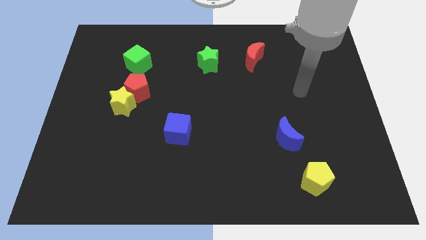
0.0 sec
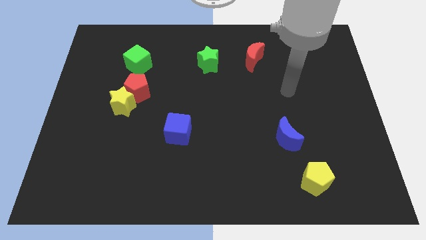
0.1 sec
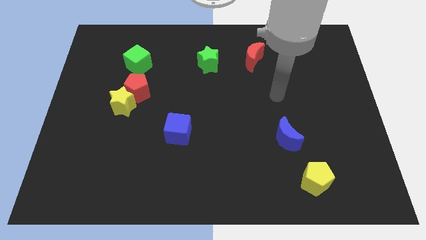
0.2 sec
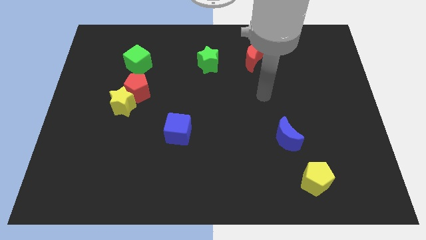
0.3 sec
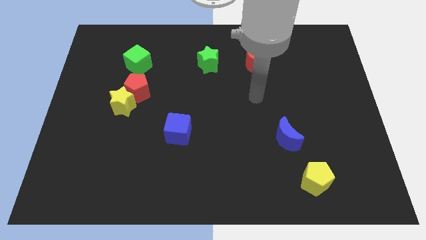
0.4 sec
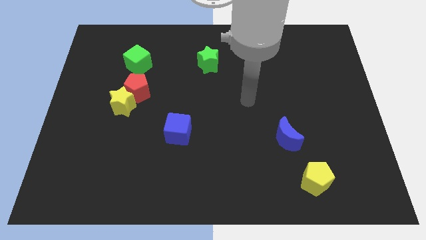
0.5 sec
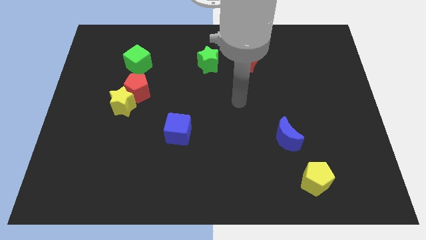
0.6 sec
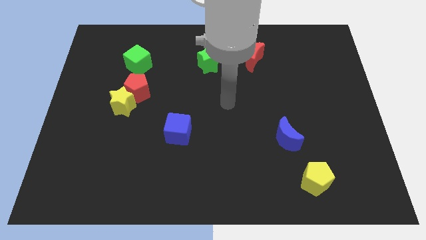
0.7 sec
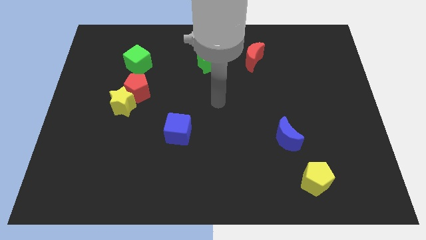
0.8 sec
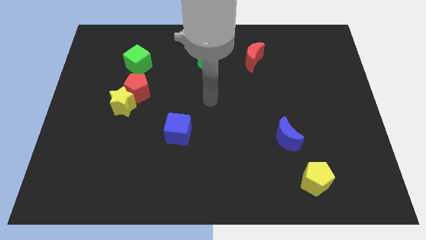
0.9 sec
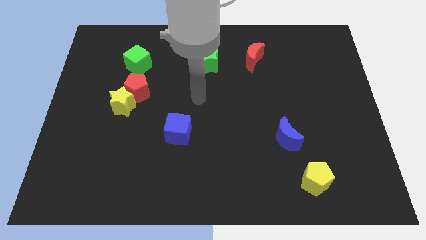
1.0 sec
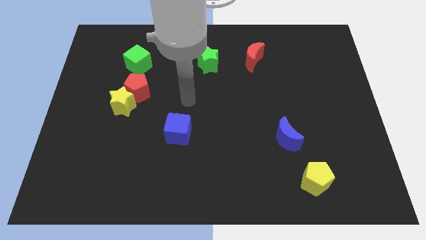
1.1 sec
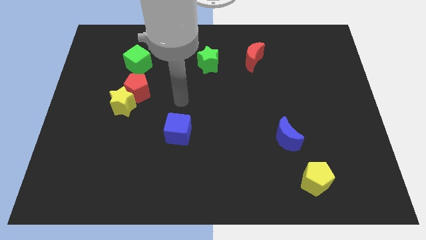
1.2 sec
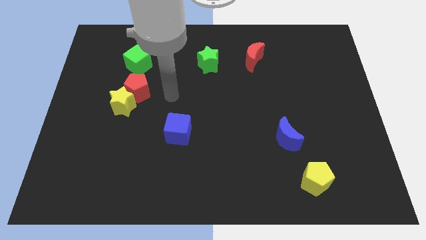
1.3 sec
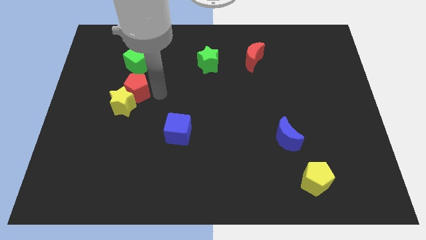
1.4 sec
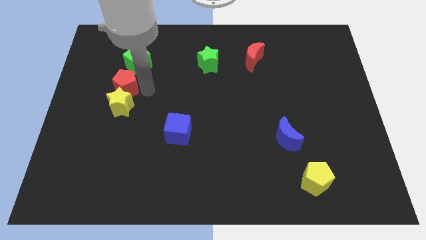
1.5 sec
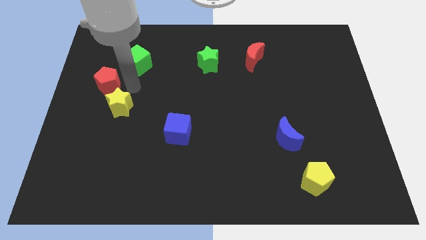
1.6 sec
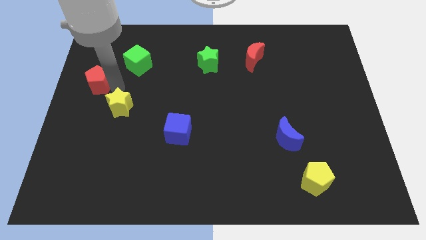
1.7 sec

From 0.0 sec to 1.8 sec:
pull the yellow star apart from the red pentagon

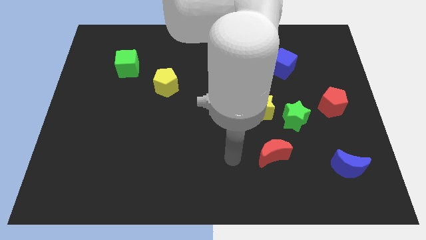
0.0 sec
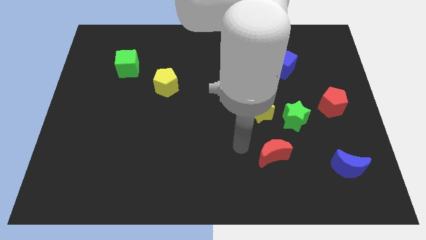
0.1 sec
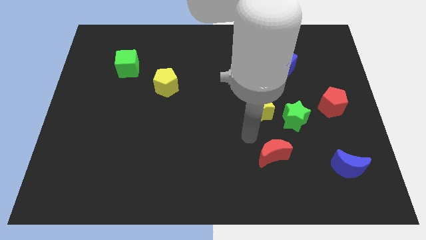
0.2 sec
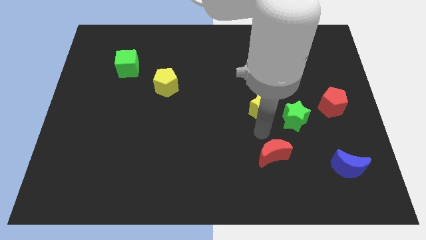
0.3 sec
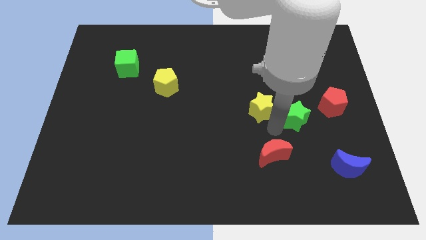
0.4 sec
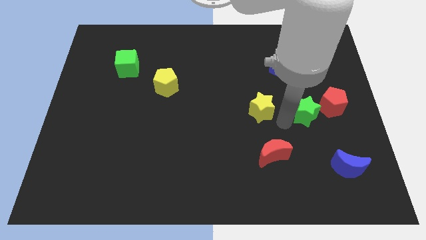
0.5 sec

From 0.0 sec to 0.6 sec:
pull the yellow star apart from the green star

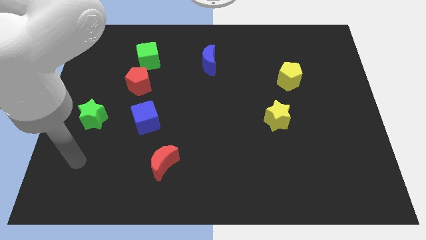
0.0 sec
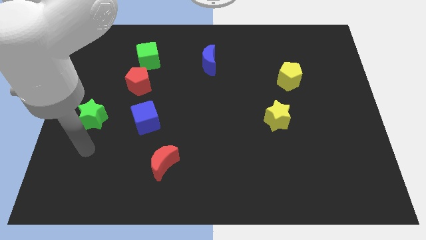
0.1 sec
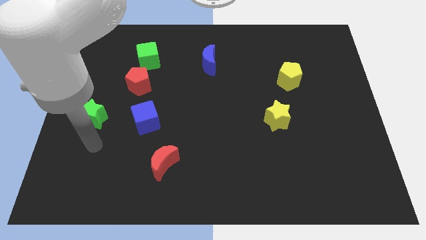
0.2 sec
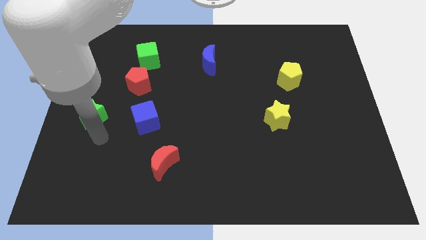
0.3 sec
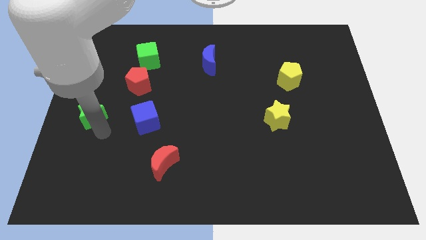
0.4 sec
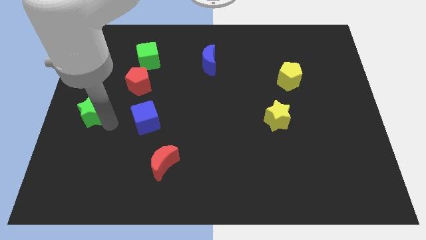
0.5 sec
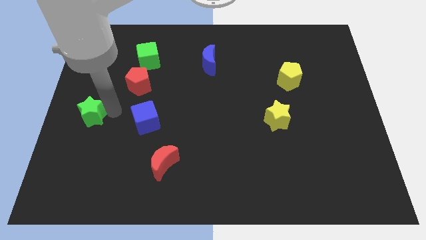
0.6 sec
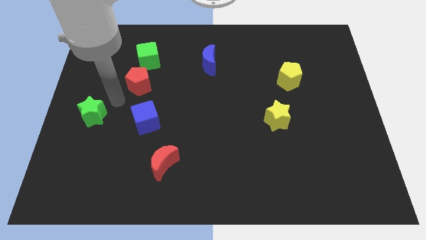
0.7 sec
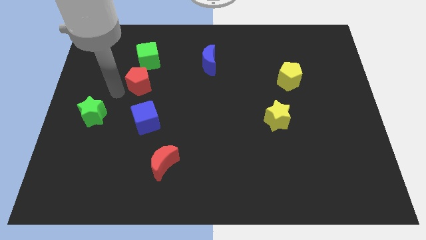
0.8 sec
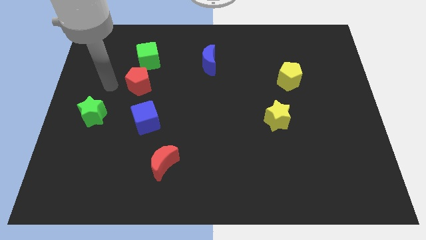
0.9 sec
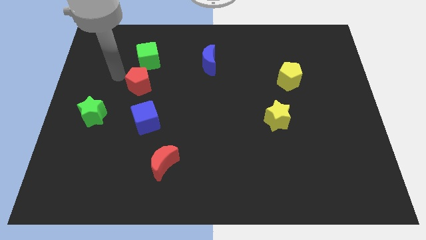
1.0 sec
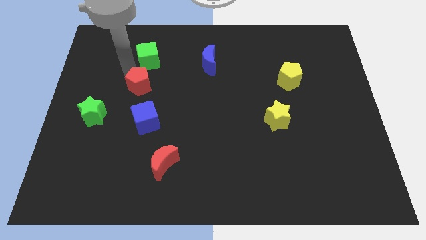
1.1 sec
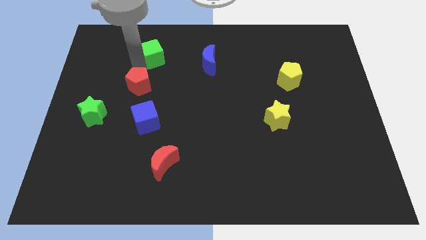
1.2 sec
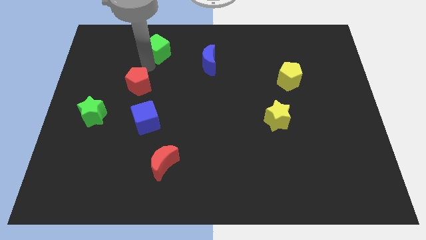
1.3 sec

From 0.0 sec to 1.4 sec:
separate the red pentagon from the green cube

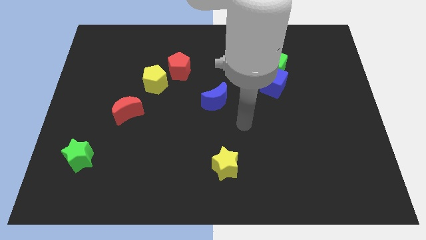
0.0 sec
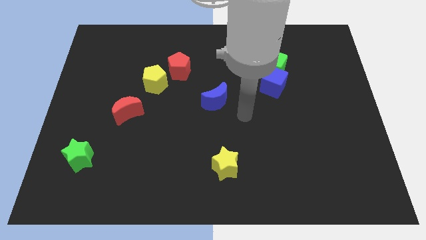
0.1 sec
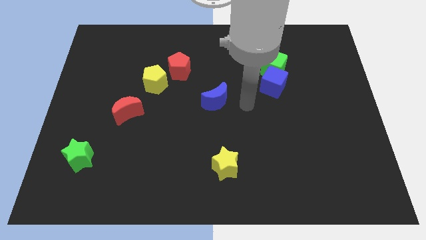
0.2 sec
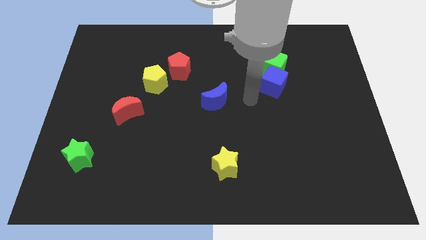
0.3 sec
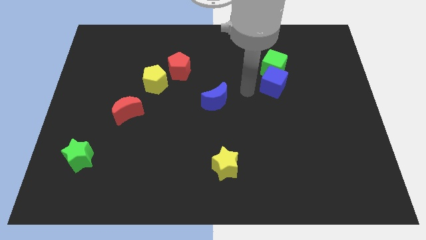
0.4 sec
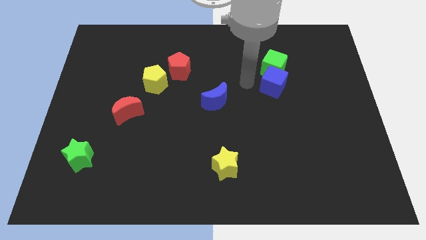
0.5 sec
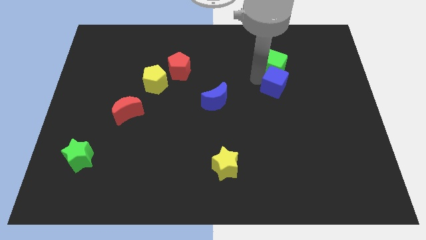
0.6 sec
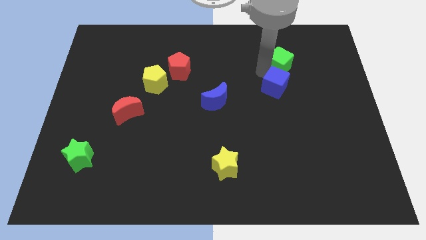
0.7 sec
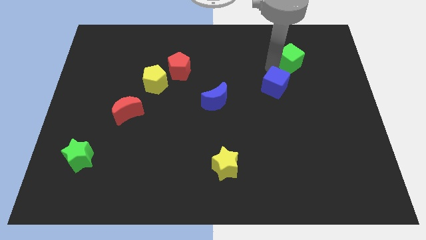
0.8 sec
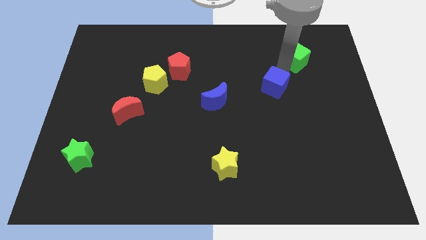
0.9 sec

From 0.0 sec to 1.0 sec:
move the blue cube away from the green cube

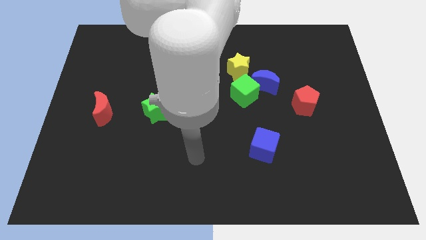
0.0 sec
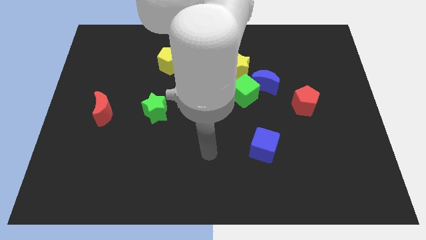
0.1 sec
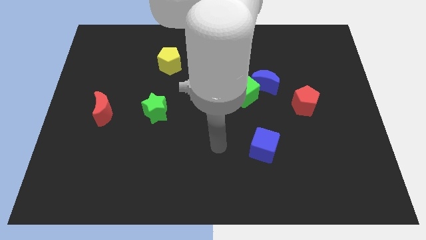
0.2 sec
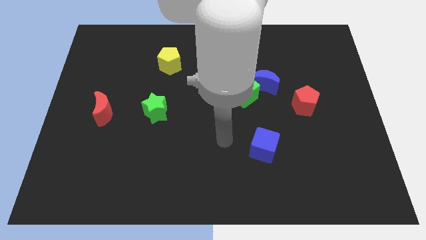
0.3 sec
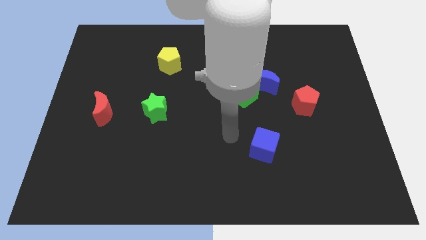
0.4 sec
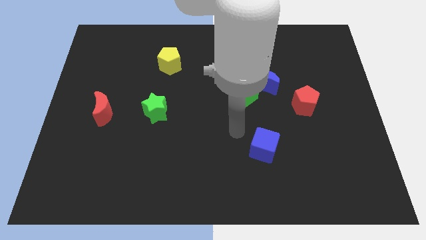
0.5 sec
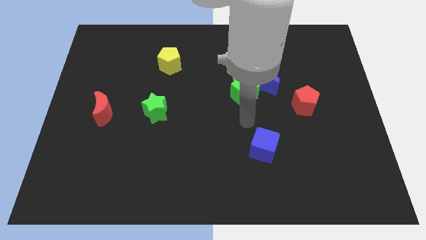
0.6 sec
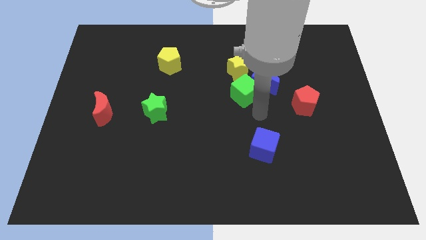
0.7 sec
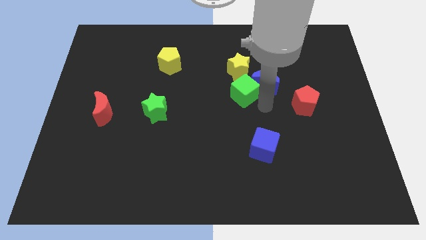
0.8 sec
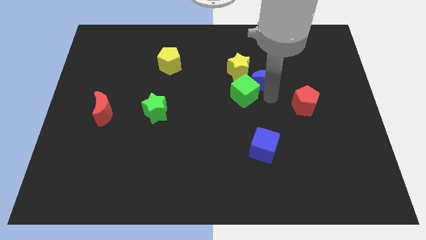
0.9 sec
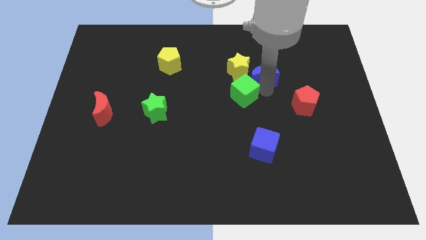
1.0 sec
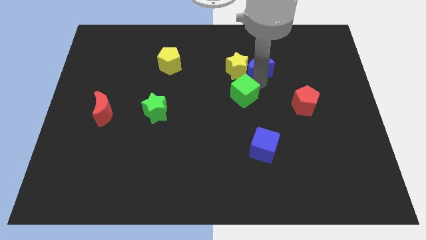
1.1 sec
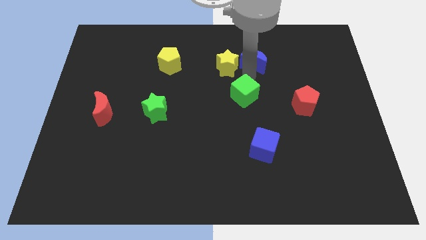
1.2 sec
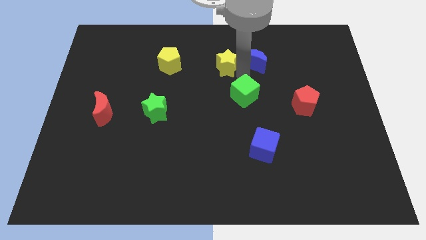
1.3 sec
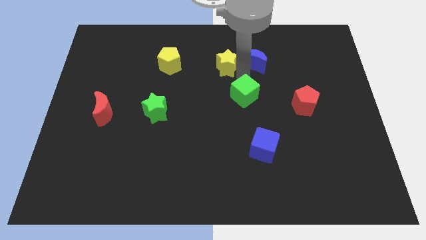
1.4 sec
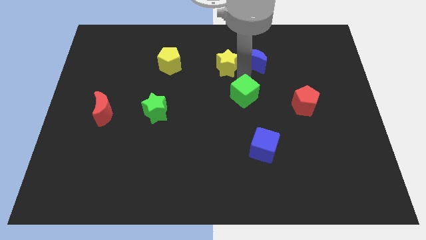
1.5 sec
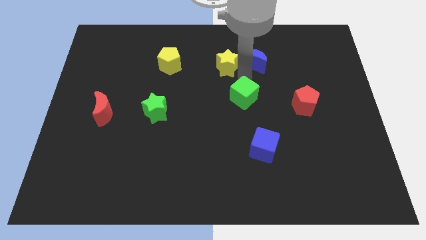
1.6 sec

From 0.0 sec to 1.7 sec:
separate the green cube from the blue moon and yellow star

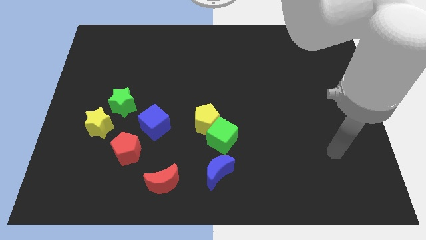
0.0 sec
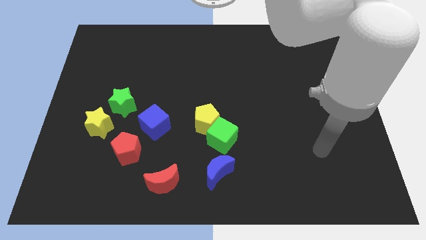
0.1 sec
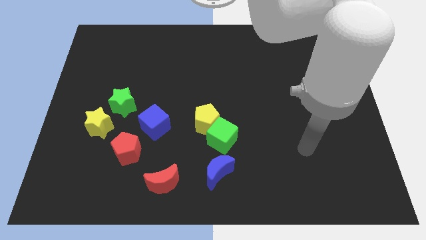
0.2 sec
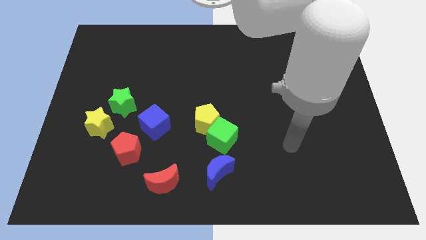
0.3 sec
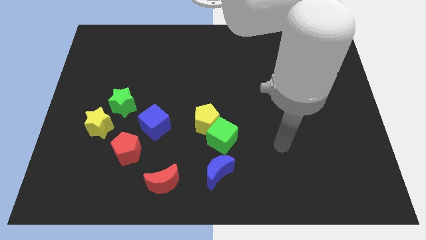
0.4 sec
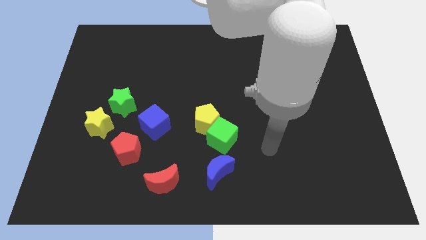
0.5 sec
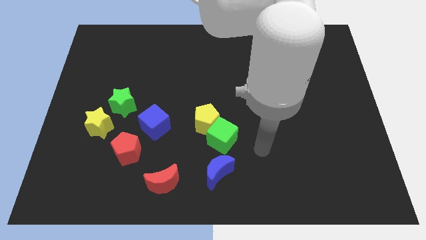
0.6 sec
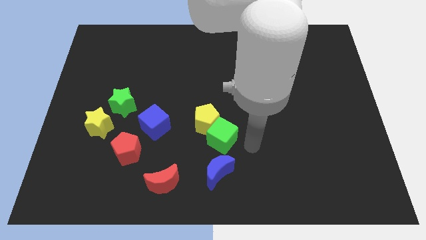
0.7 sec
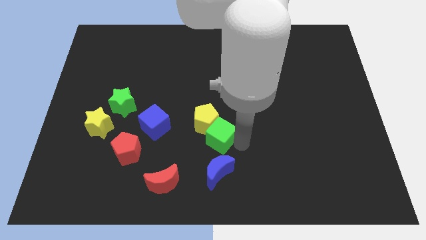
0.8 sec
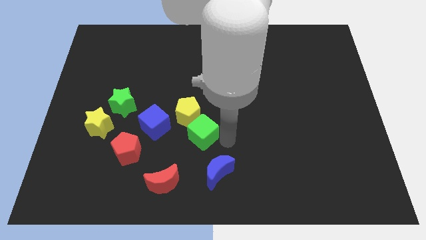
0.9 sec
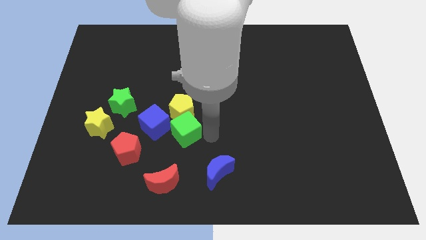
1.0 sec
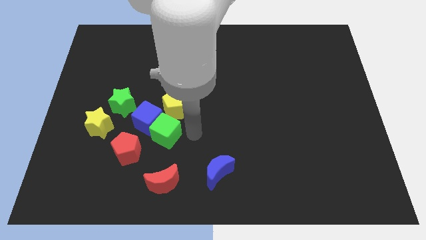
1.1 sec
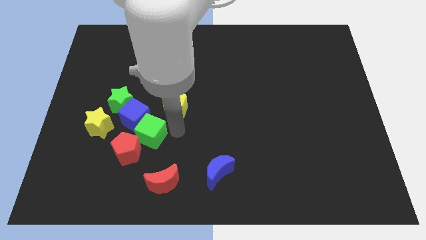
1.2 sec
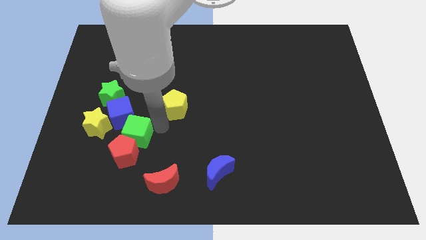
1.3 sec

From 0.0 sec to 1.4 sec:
pull the yellow pentagon apart from the green cube

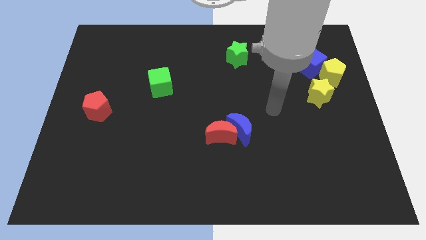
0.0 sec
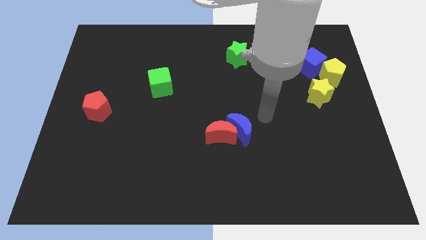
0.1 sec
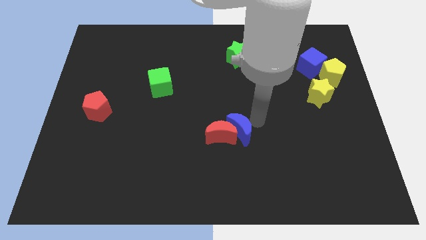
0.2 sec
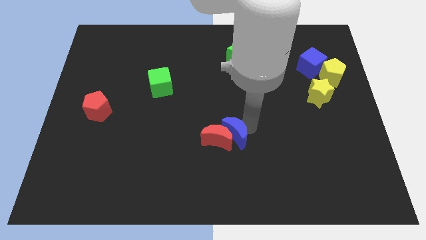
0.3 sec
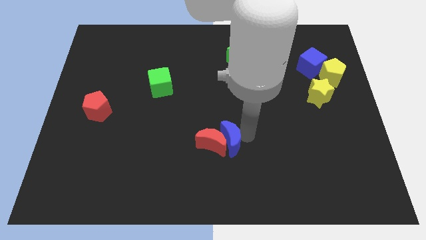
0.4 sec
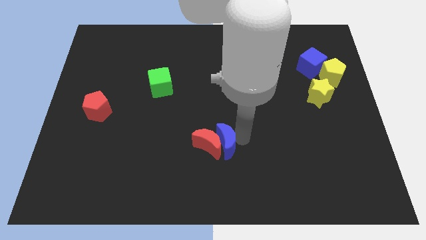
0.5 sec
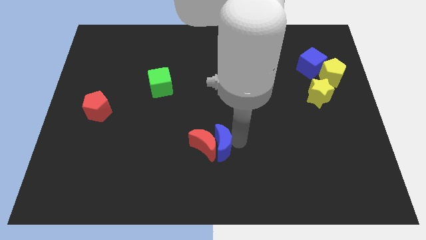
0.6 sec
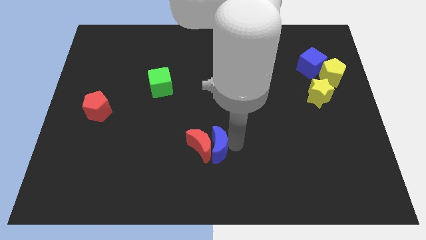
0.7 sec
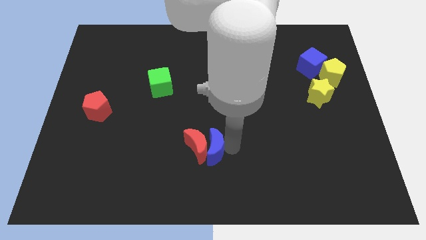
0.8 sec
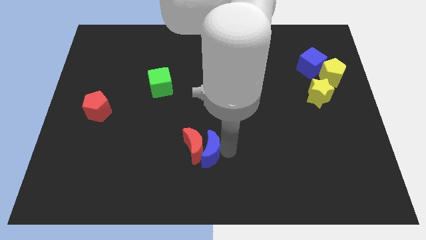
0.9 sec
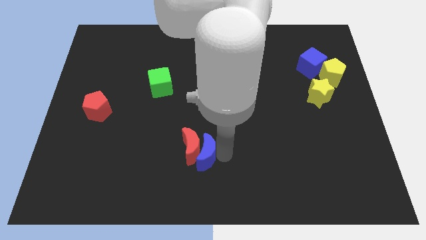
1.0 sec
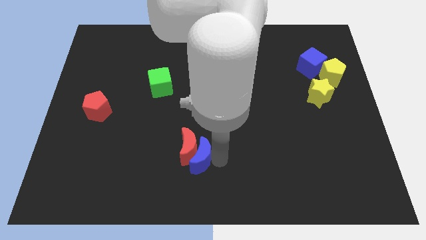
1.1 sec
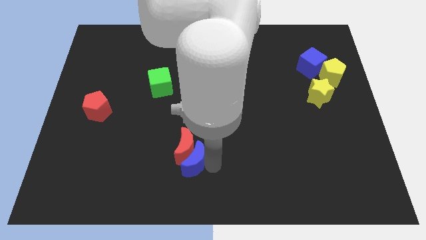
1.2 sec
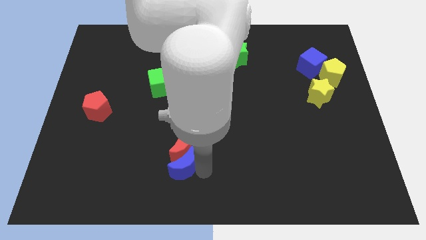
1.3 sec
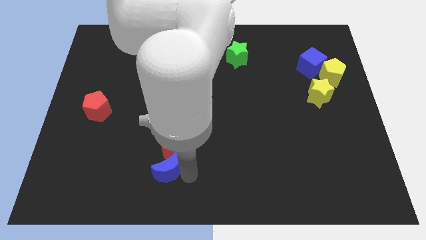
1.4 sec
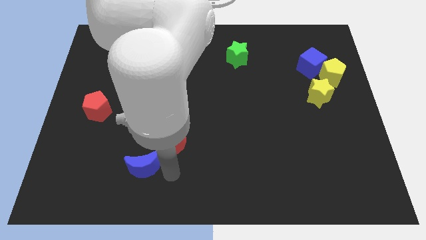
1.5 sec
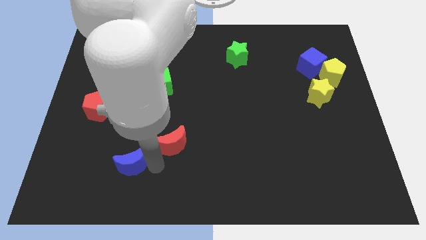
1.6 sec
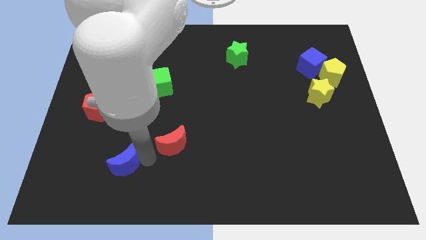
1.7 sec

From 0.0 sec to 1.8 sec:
pull the red moon apart from the blue moon
